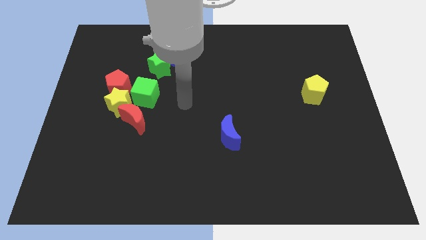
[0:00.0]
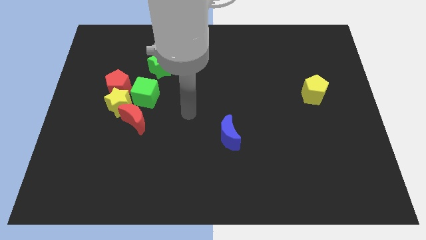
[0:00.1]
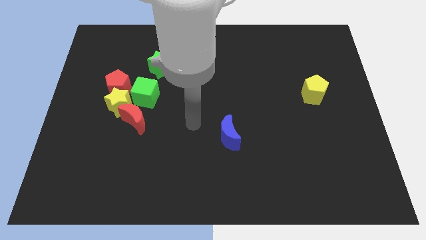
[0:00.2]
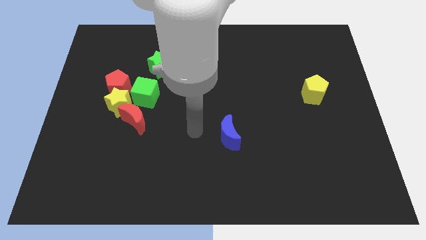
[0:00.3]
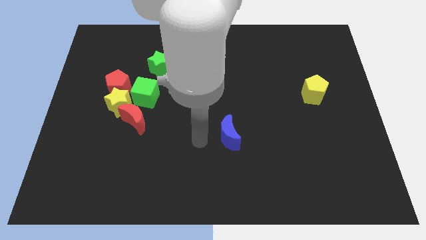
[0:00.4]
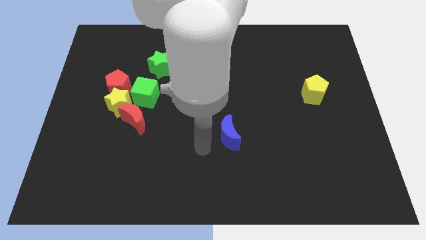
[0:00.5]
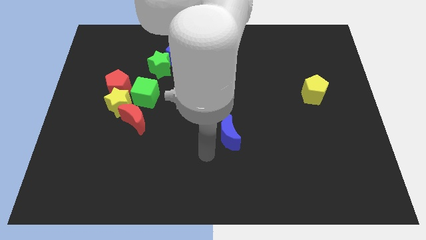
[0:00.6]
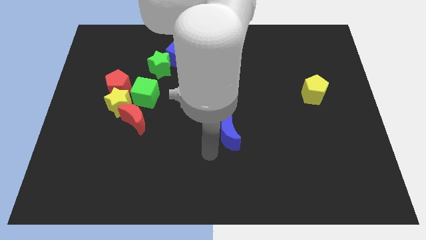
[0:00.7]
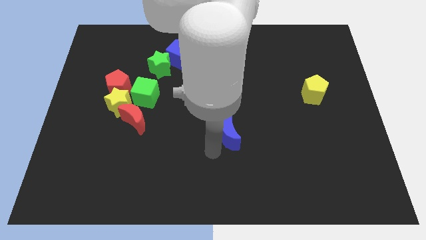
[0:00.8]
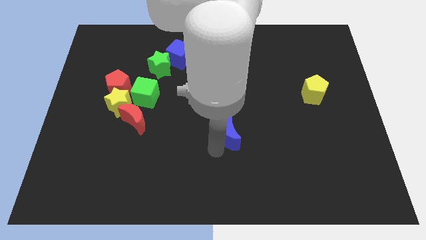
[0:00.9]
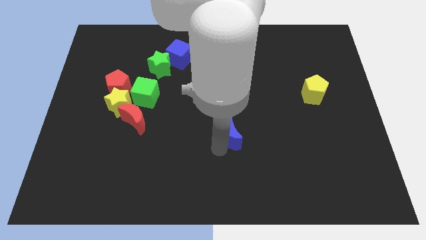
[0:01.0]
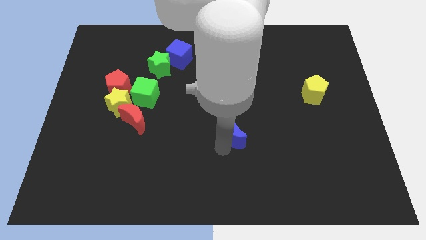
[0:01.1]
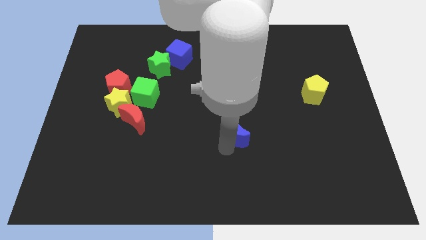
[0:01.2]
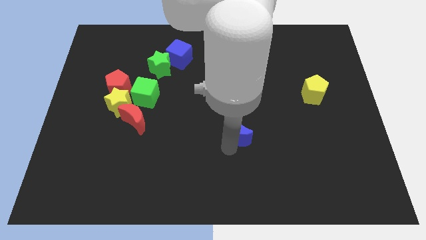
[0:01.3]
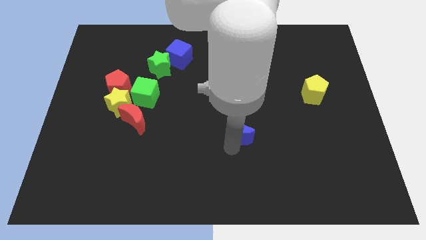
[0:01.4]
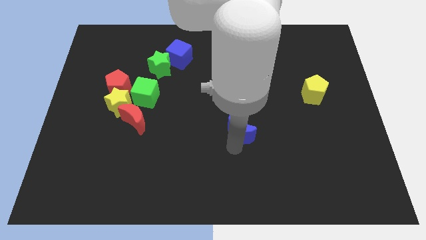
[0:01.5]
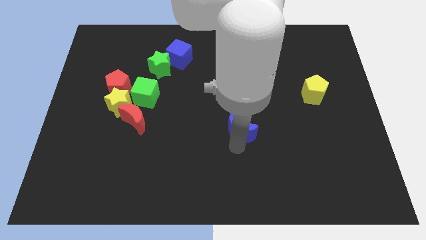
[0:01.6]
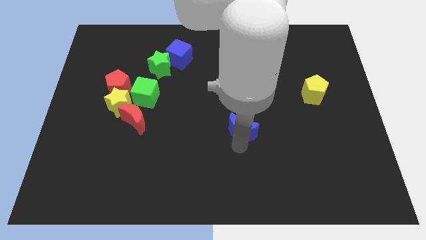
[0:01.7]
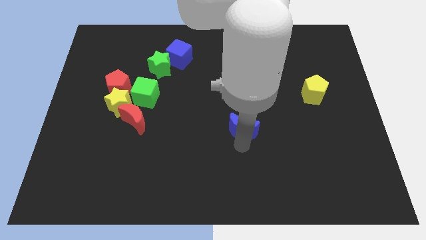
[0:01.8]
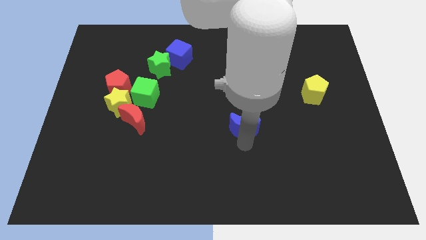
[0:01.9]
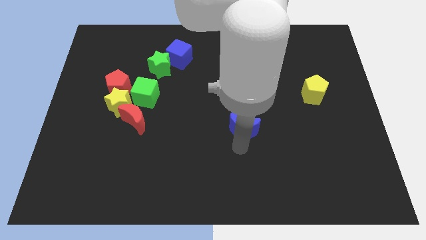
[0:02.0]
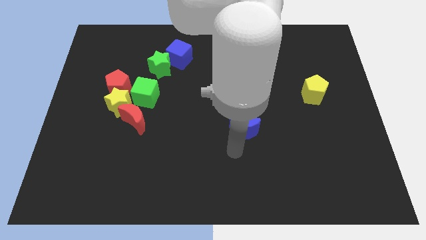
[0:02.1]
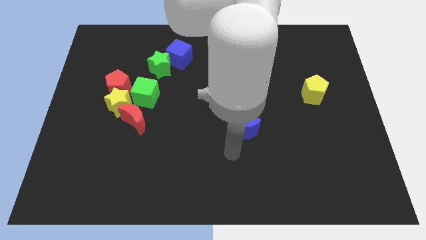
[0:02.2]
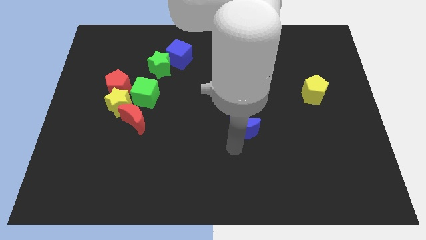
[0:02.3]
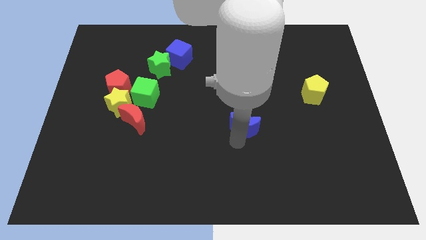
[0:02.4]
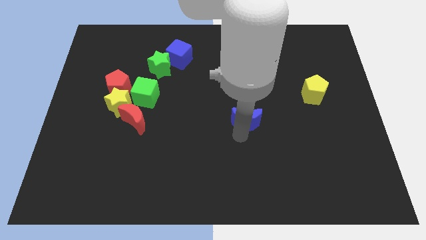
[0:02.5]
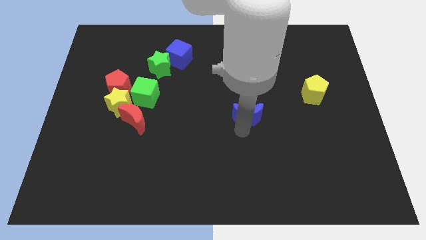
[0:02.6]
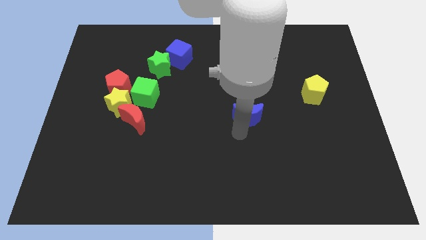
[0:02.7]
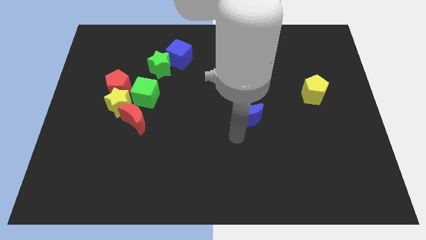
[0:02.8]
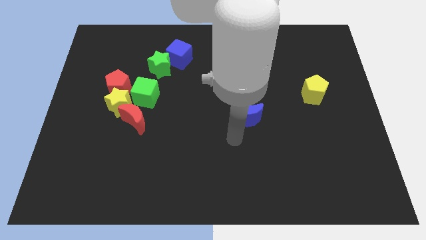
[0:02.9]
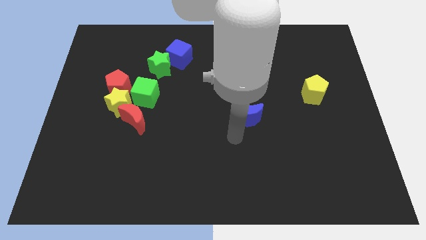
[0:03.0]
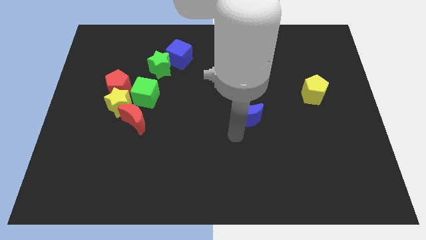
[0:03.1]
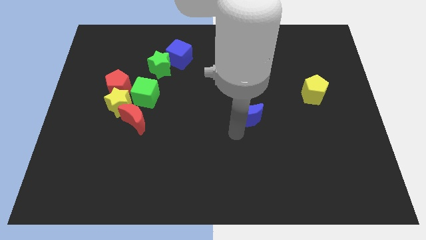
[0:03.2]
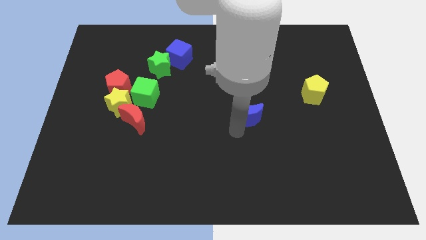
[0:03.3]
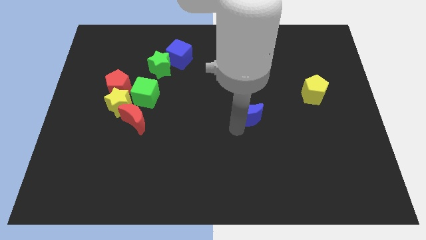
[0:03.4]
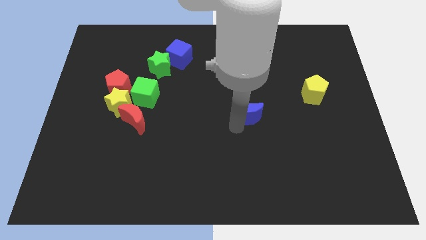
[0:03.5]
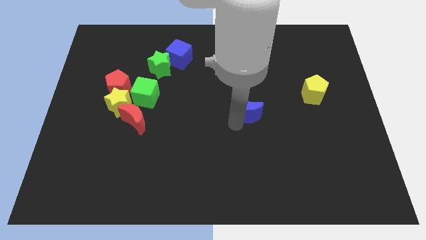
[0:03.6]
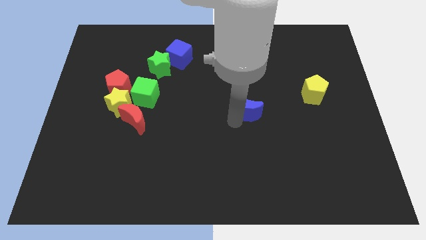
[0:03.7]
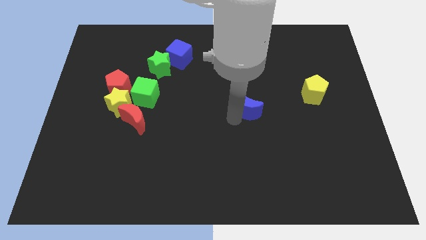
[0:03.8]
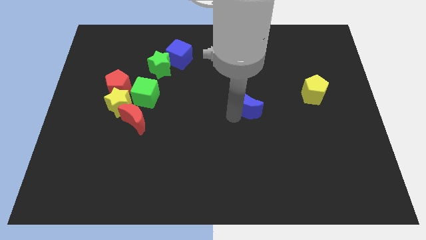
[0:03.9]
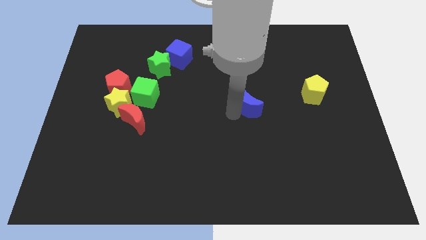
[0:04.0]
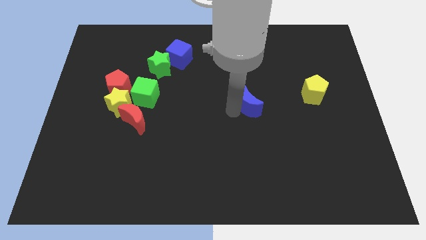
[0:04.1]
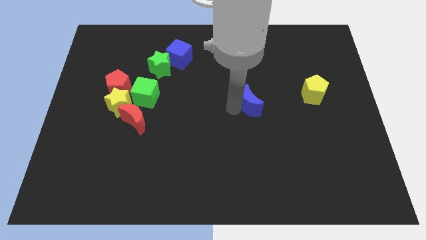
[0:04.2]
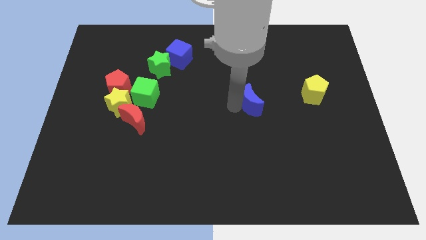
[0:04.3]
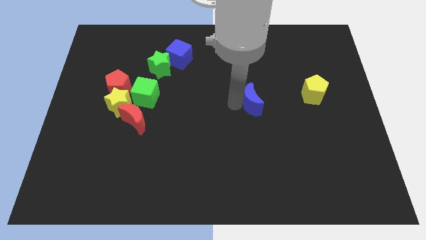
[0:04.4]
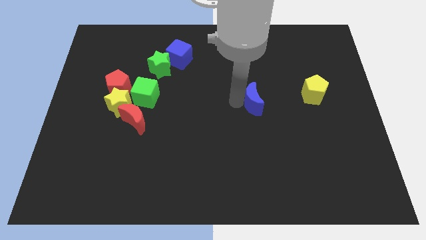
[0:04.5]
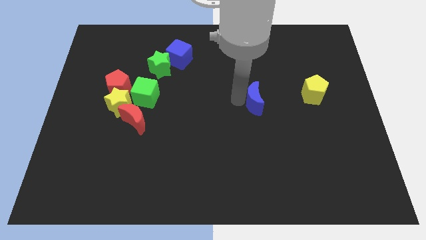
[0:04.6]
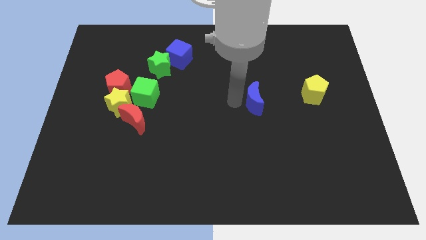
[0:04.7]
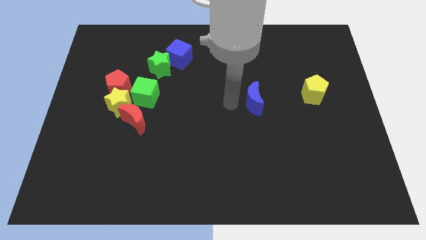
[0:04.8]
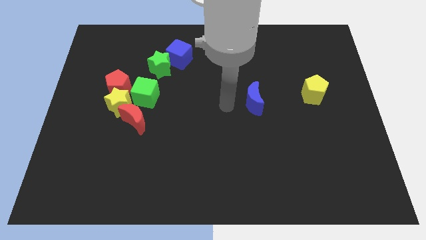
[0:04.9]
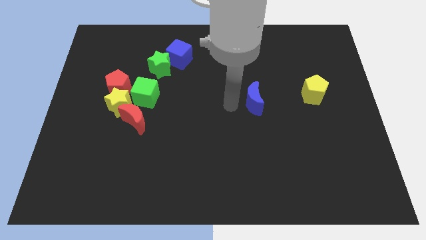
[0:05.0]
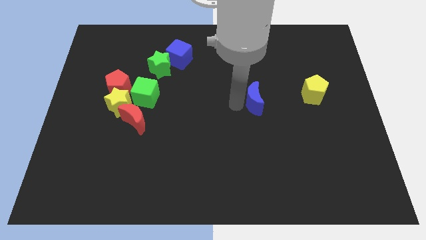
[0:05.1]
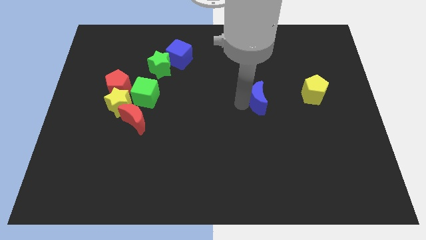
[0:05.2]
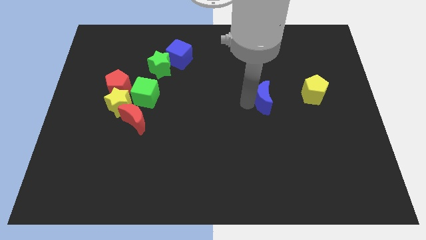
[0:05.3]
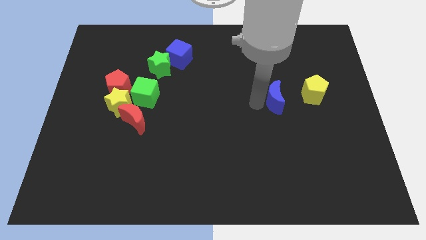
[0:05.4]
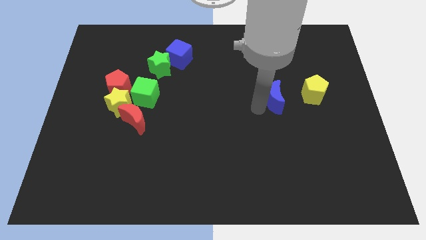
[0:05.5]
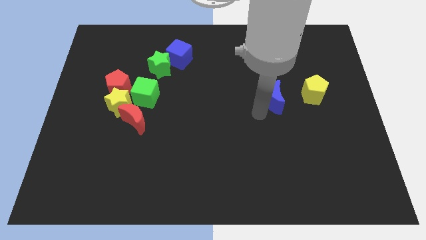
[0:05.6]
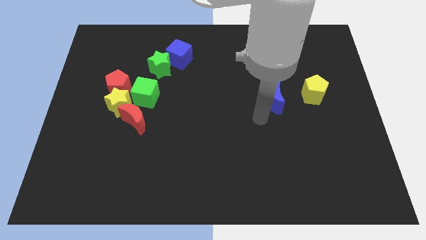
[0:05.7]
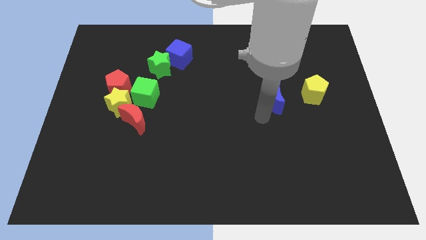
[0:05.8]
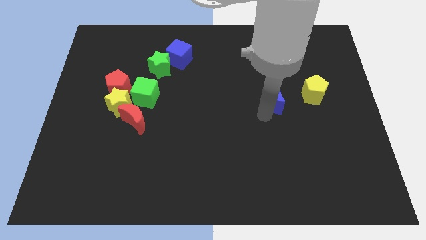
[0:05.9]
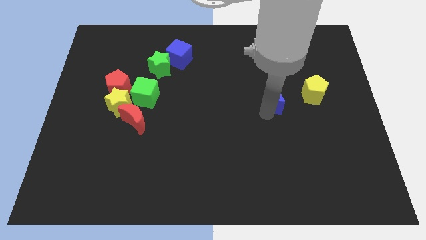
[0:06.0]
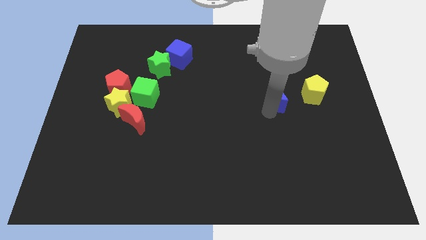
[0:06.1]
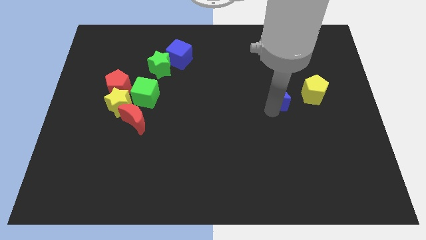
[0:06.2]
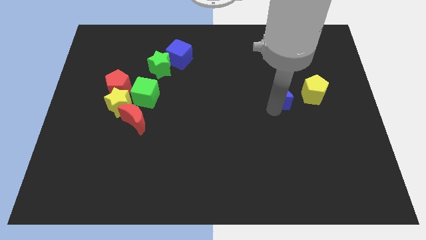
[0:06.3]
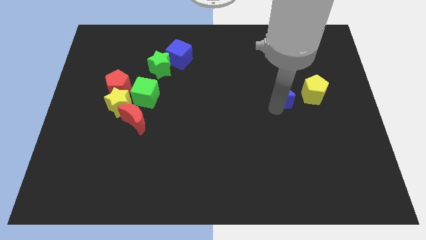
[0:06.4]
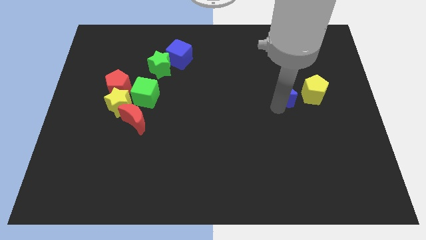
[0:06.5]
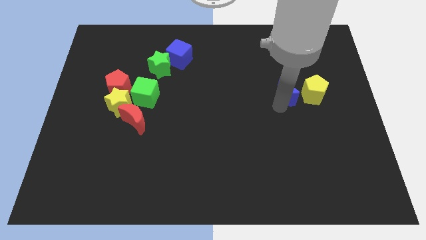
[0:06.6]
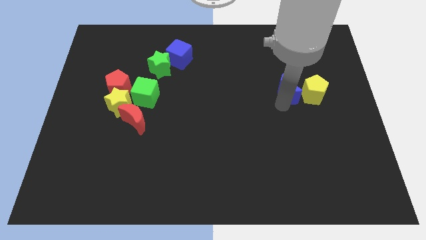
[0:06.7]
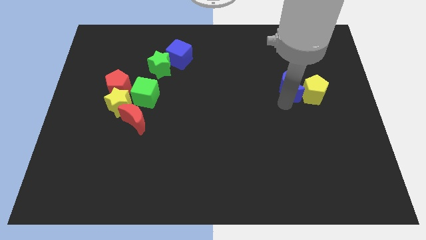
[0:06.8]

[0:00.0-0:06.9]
push the blue moon diagonally up and right

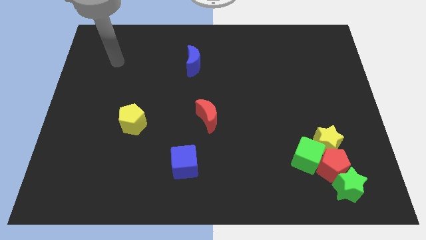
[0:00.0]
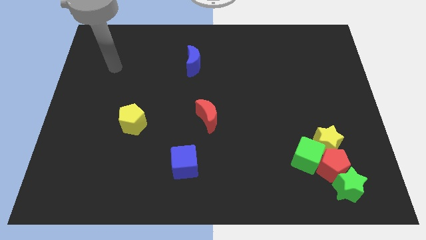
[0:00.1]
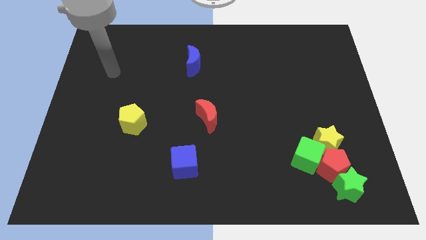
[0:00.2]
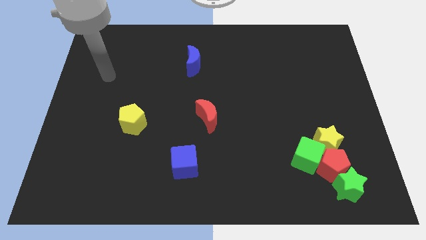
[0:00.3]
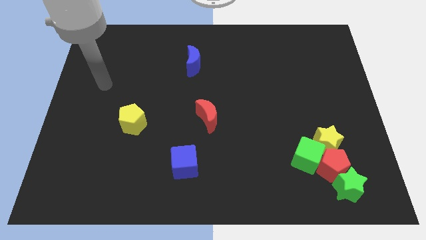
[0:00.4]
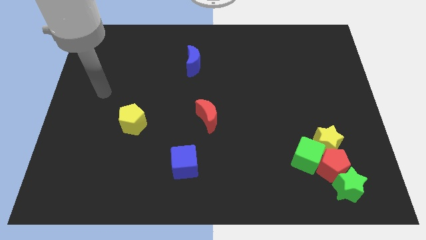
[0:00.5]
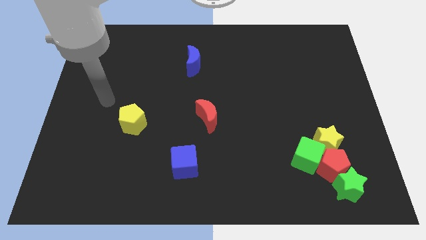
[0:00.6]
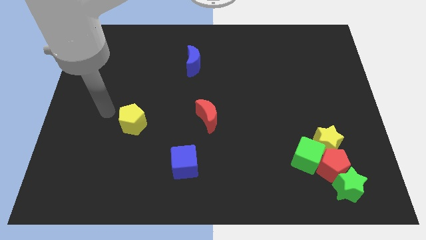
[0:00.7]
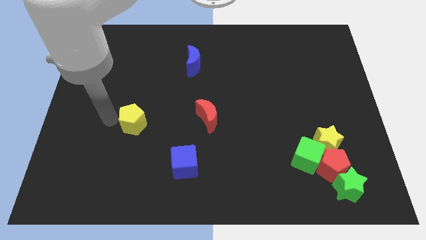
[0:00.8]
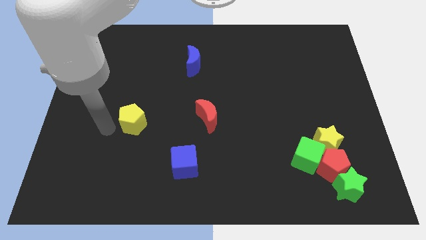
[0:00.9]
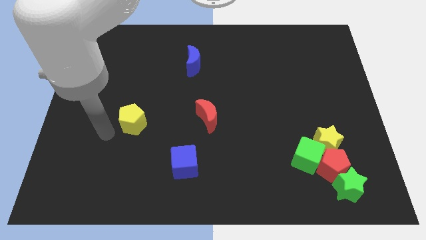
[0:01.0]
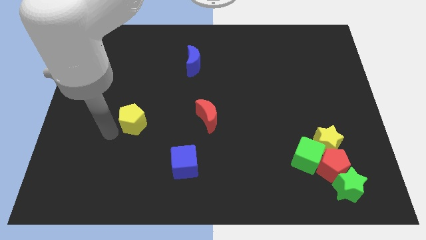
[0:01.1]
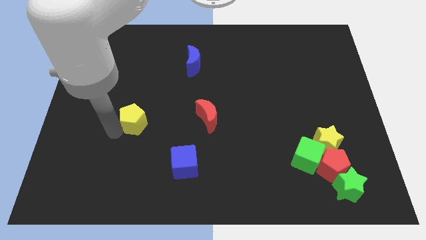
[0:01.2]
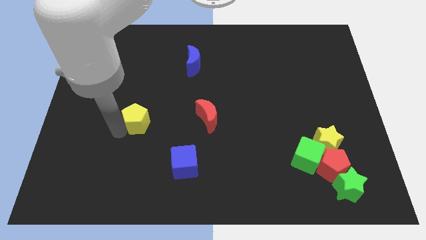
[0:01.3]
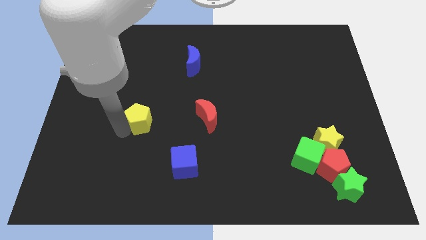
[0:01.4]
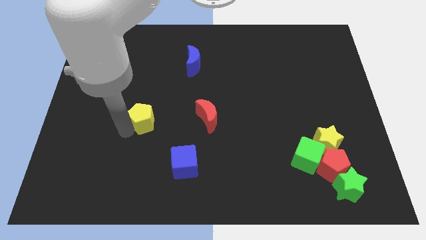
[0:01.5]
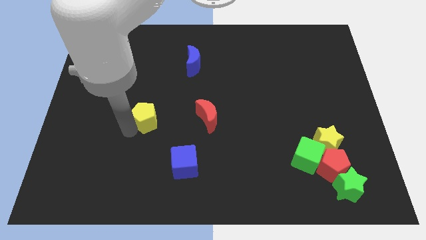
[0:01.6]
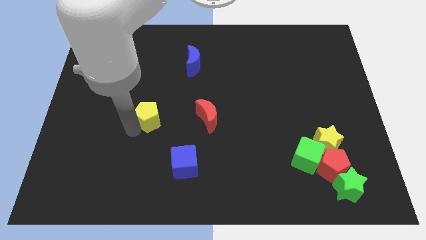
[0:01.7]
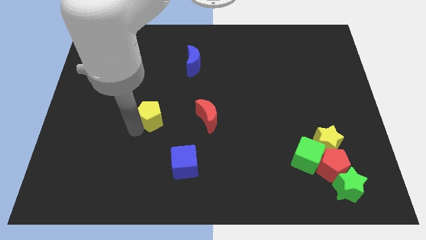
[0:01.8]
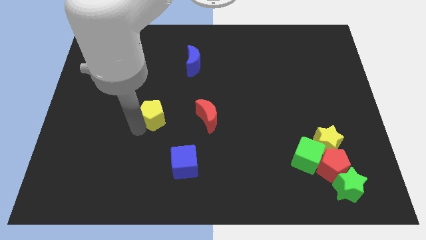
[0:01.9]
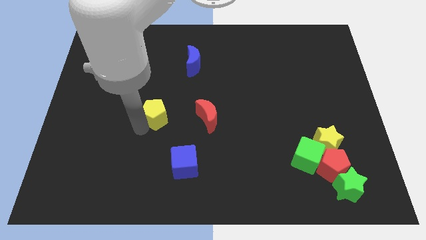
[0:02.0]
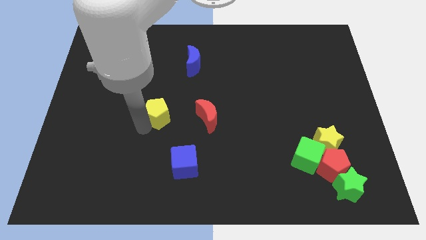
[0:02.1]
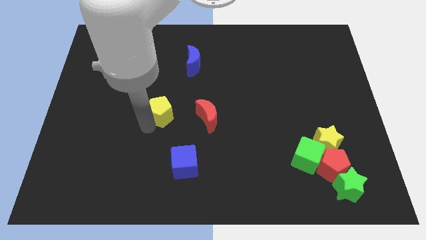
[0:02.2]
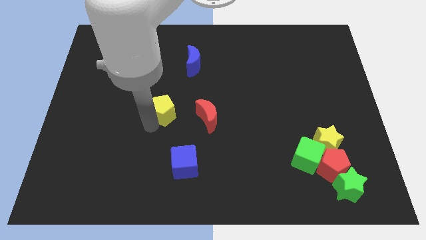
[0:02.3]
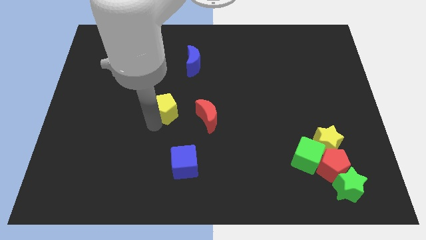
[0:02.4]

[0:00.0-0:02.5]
move the yellow pentagon up and to the right diagonally a little
